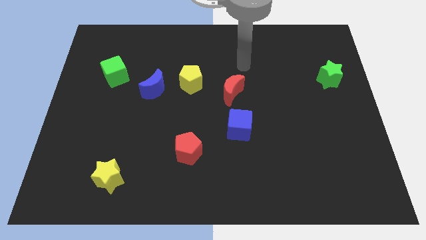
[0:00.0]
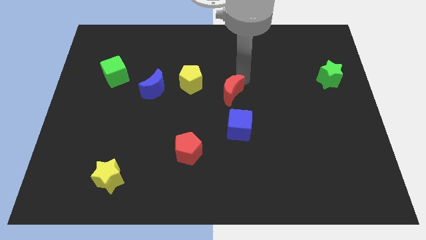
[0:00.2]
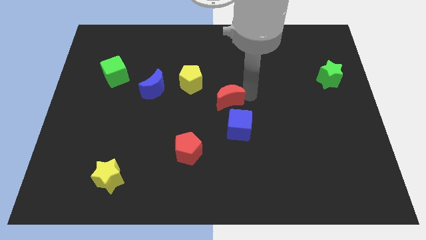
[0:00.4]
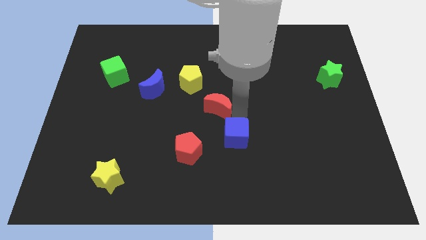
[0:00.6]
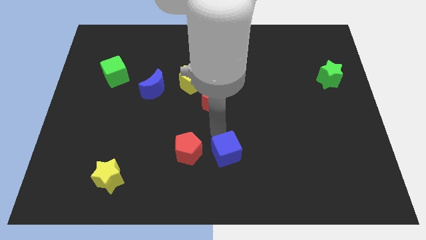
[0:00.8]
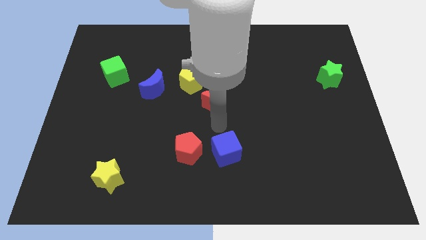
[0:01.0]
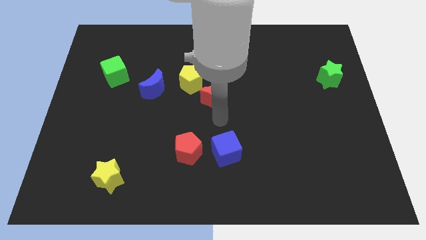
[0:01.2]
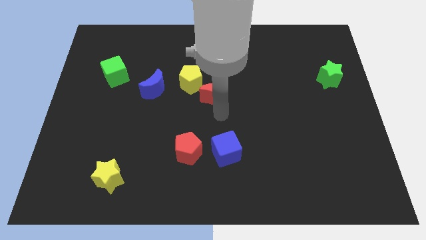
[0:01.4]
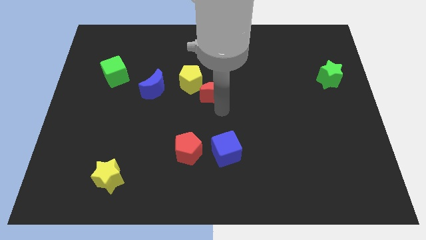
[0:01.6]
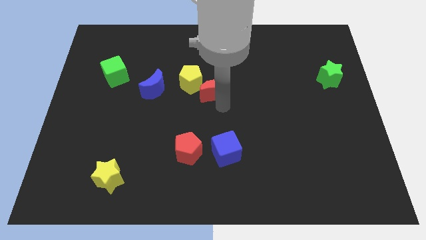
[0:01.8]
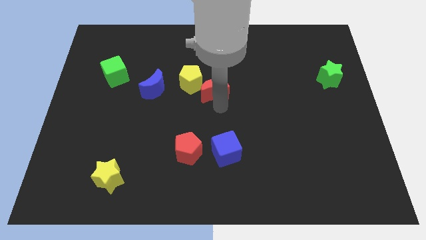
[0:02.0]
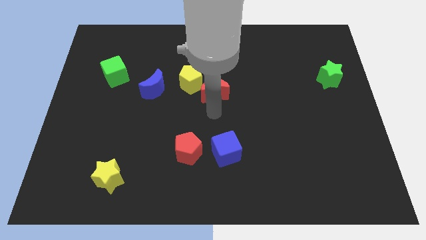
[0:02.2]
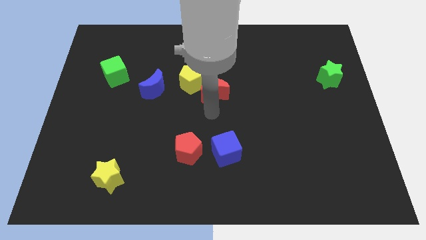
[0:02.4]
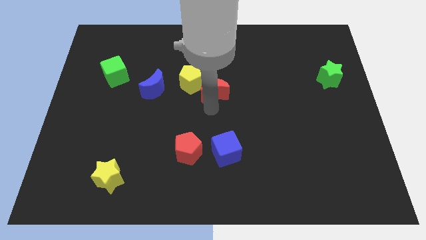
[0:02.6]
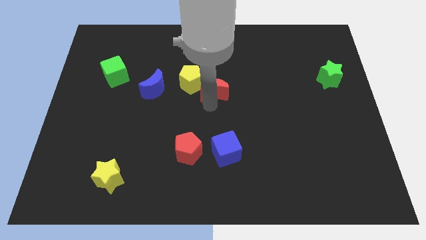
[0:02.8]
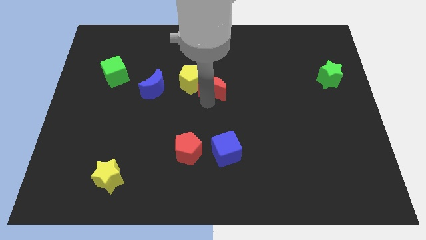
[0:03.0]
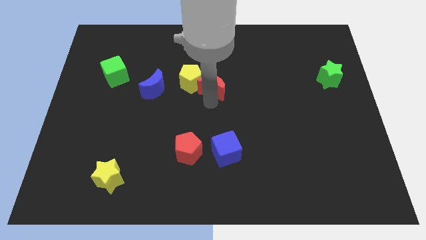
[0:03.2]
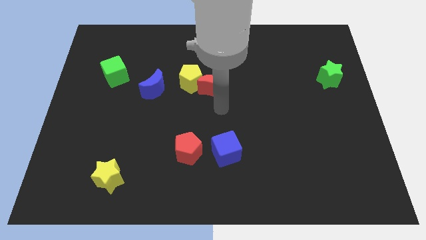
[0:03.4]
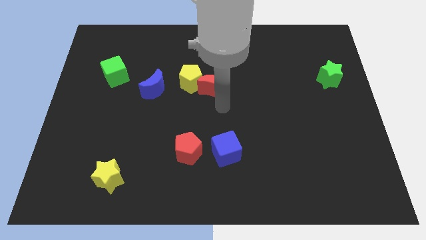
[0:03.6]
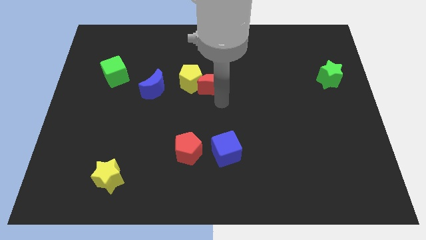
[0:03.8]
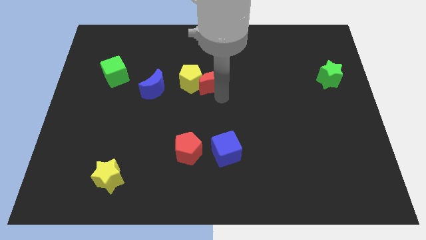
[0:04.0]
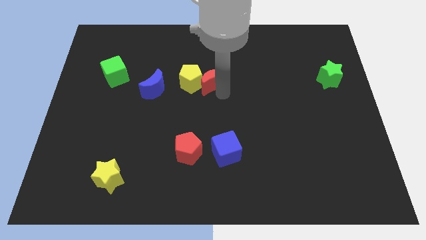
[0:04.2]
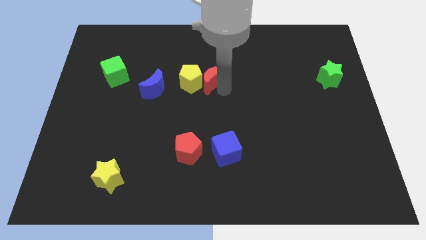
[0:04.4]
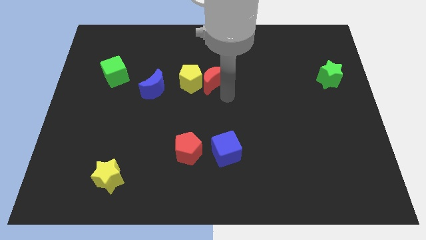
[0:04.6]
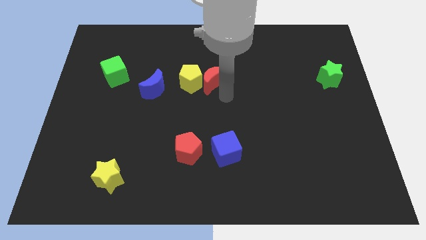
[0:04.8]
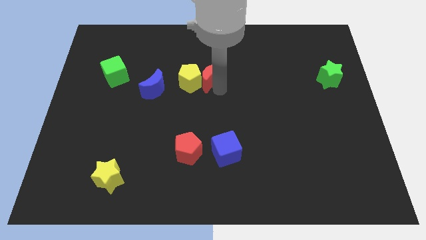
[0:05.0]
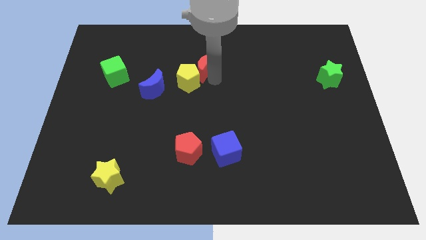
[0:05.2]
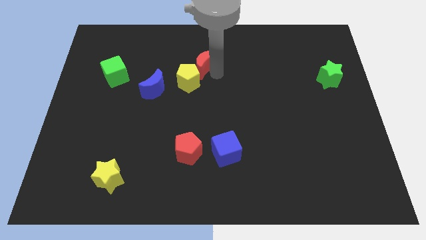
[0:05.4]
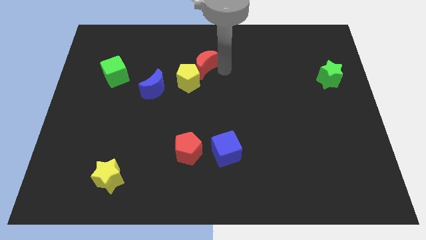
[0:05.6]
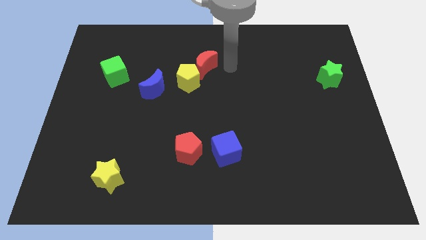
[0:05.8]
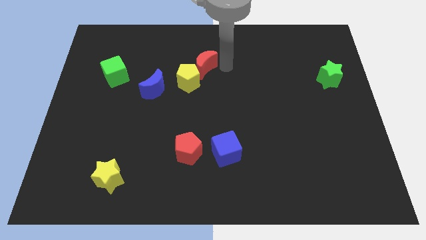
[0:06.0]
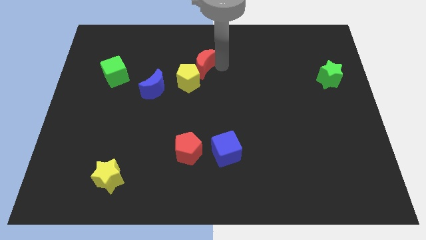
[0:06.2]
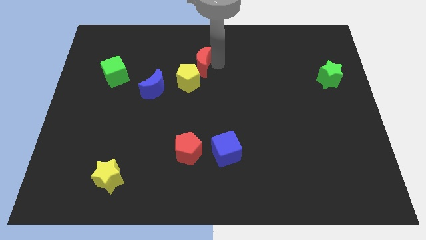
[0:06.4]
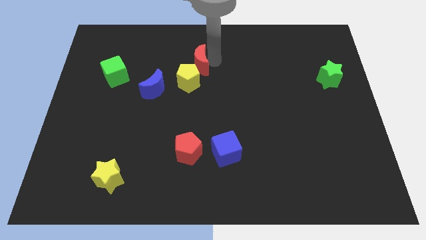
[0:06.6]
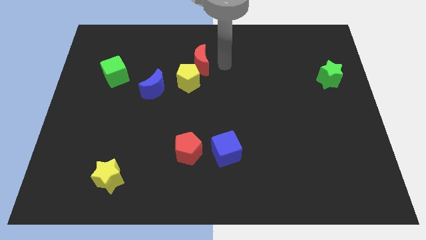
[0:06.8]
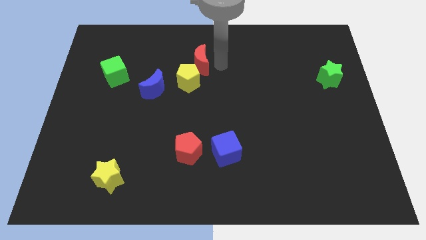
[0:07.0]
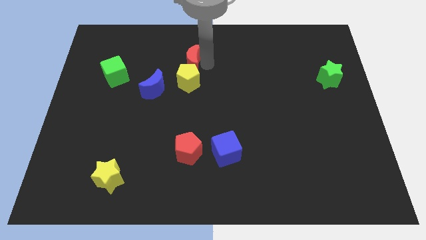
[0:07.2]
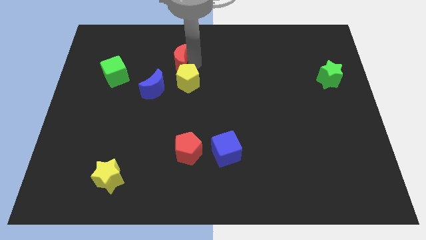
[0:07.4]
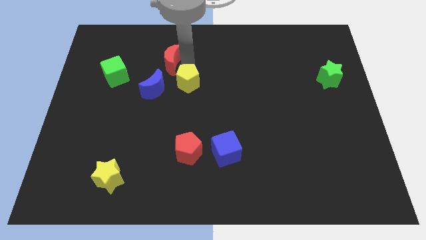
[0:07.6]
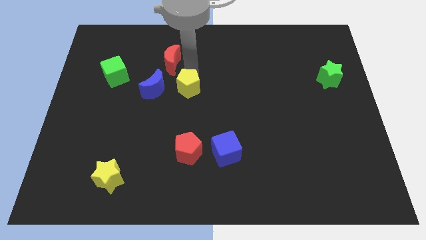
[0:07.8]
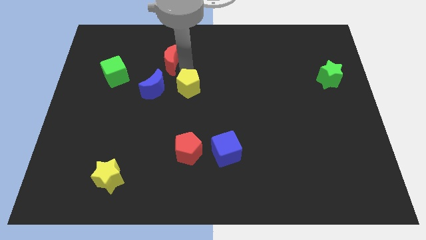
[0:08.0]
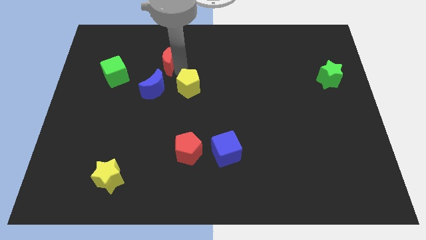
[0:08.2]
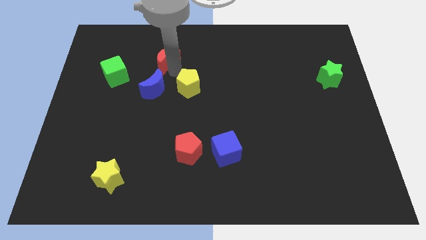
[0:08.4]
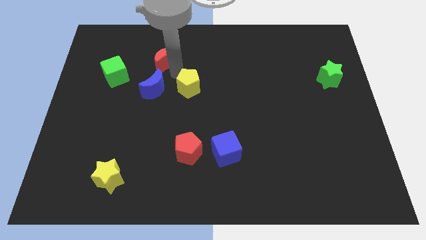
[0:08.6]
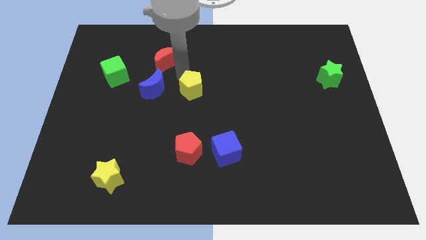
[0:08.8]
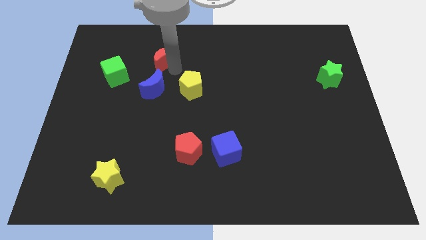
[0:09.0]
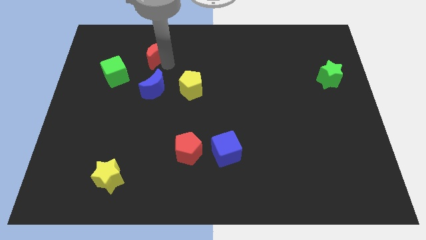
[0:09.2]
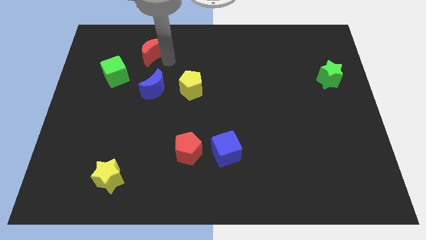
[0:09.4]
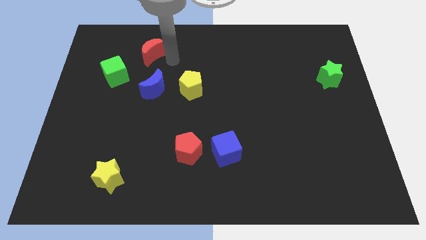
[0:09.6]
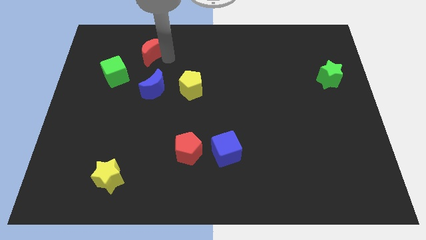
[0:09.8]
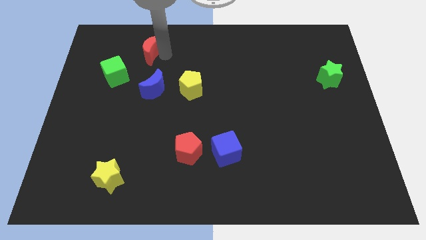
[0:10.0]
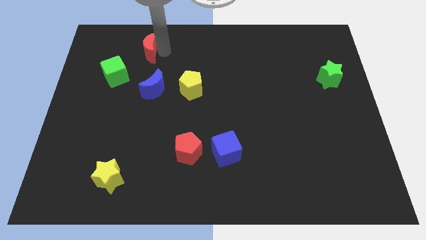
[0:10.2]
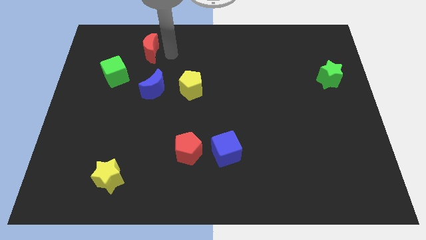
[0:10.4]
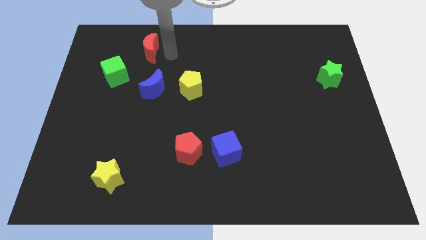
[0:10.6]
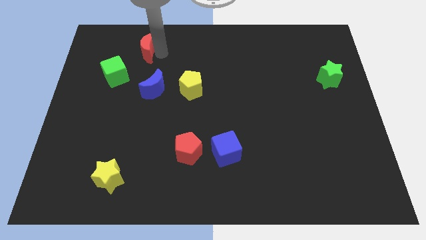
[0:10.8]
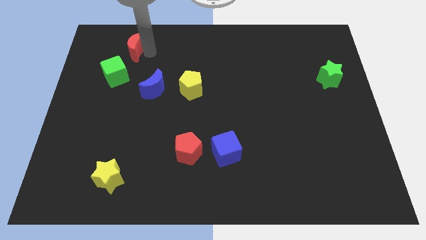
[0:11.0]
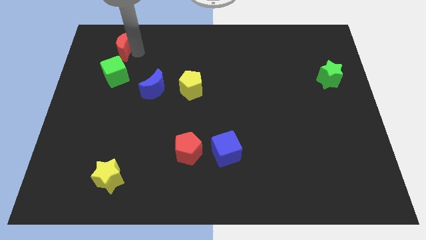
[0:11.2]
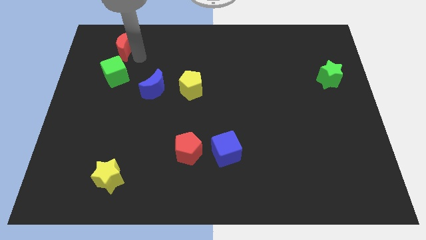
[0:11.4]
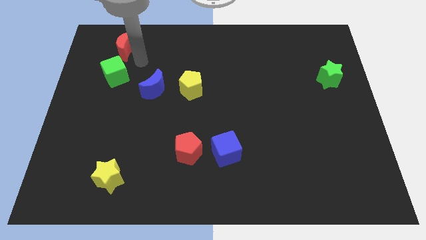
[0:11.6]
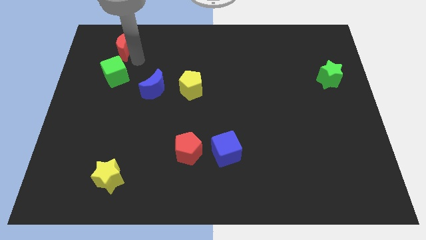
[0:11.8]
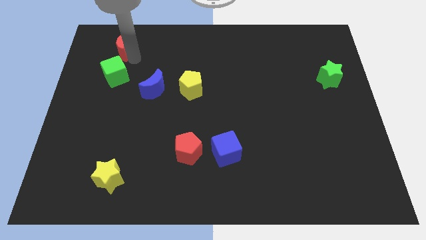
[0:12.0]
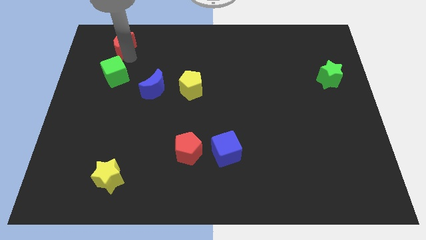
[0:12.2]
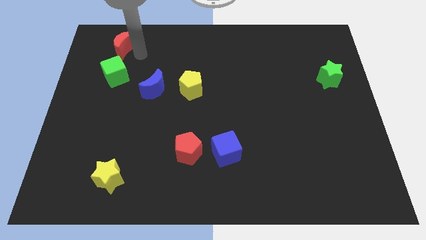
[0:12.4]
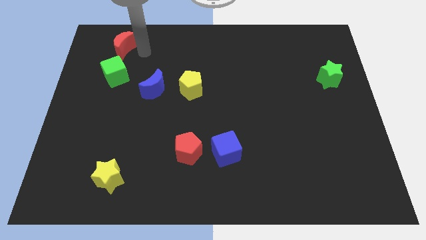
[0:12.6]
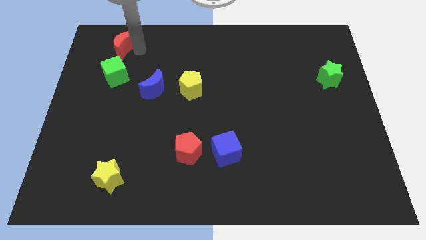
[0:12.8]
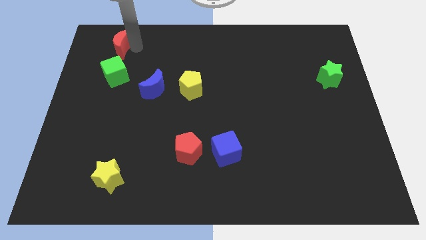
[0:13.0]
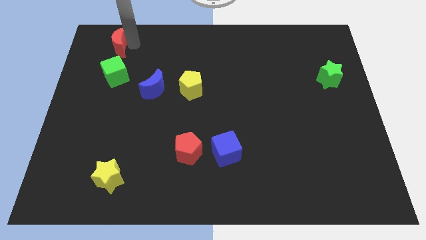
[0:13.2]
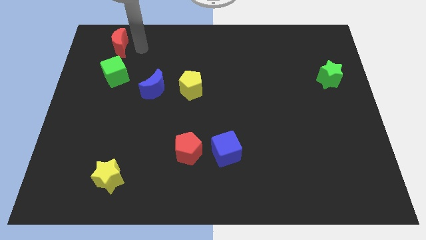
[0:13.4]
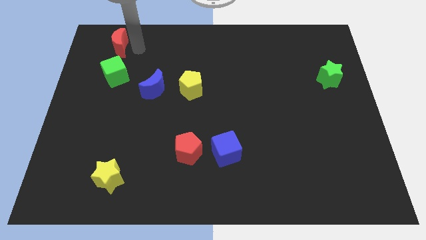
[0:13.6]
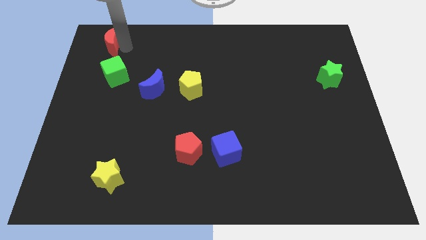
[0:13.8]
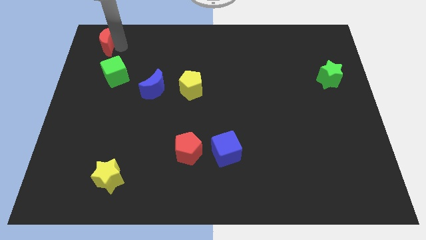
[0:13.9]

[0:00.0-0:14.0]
put the red moon to the top left
